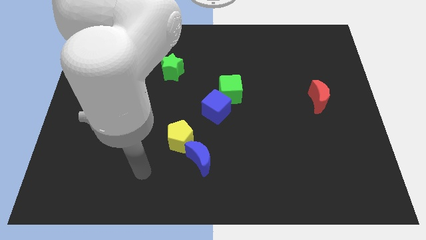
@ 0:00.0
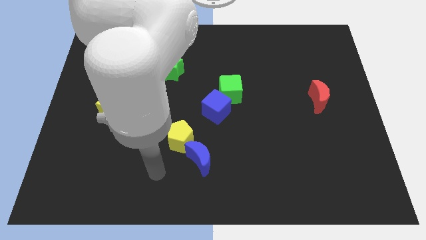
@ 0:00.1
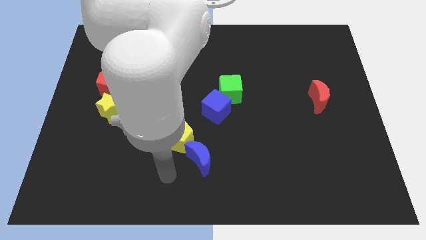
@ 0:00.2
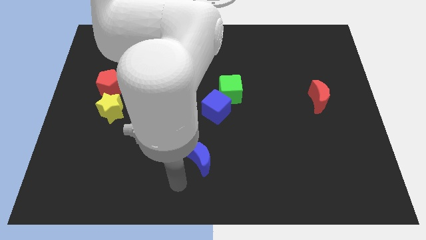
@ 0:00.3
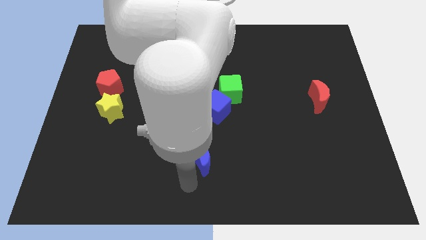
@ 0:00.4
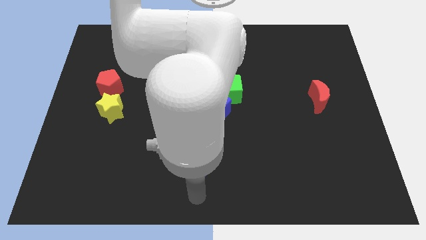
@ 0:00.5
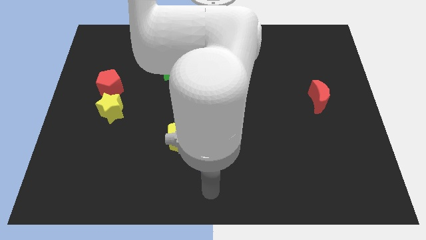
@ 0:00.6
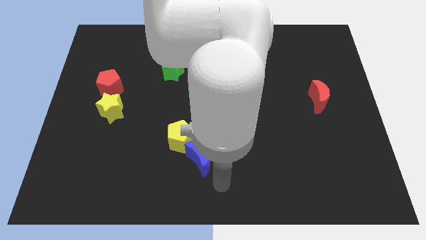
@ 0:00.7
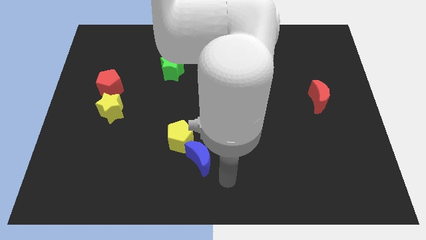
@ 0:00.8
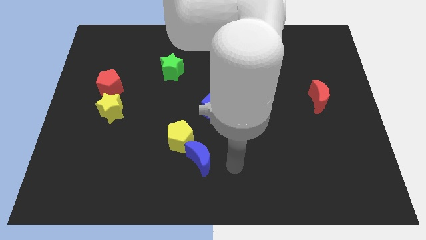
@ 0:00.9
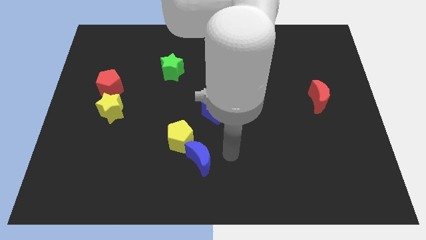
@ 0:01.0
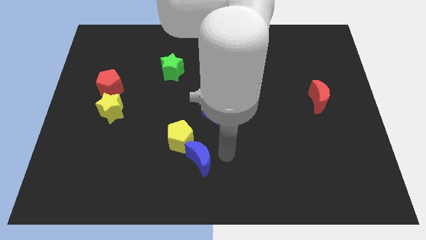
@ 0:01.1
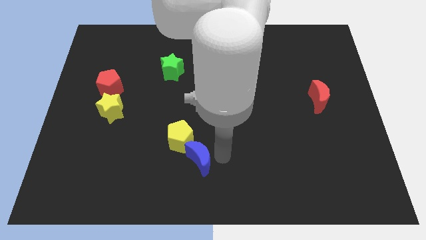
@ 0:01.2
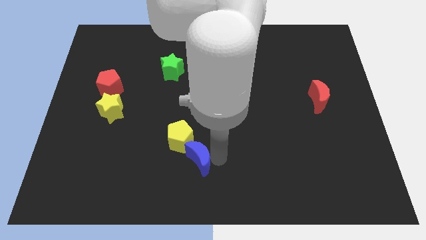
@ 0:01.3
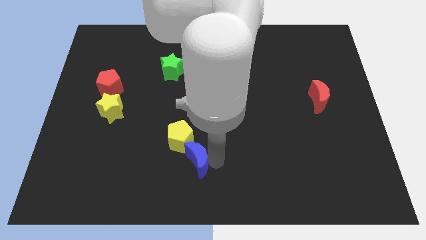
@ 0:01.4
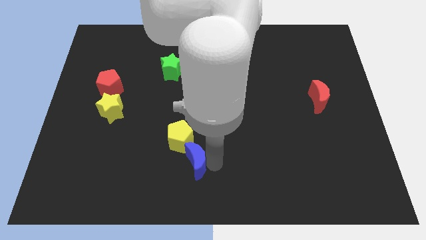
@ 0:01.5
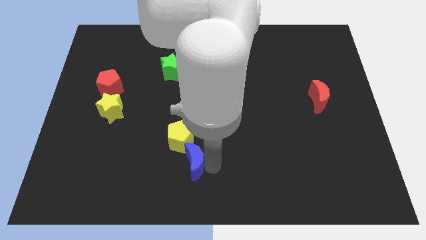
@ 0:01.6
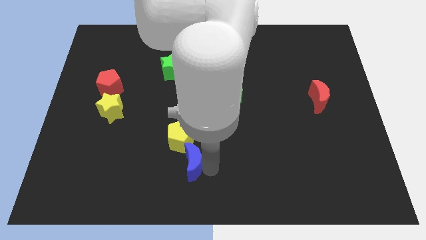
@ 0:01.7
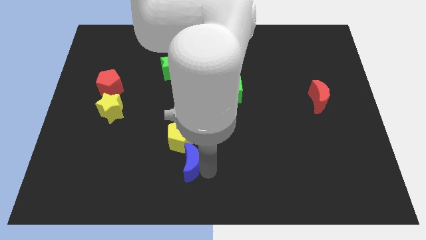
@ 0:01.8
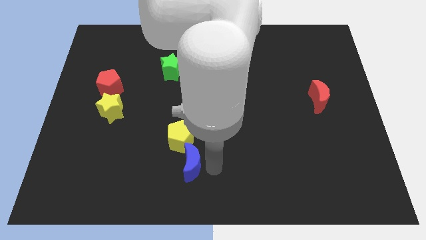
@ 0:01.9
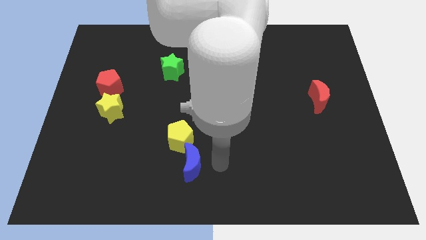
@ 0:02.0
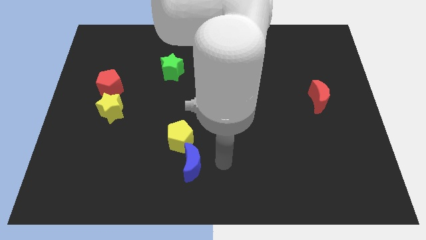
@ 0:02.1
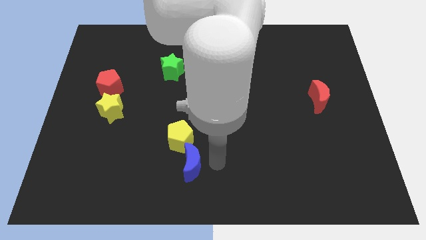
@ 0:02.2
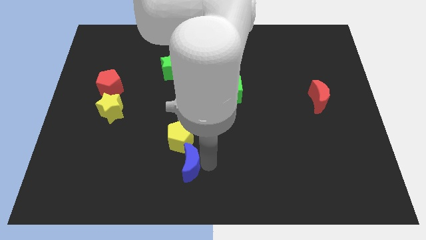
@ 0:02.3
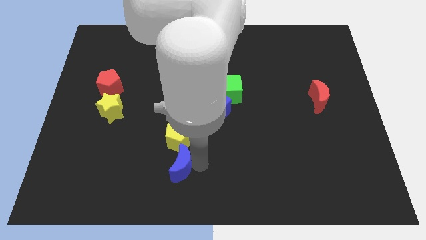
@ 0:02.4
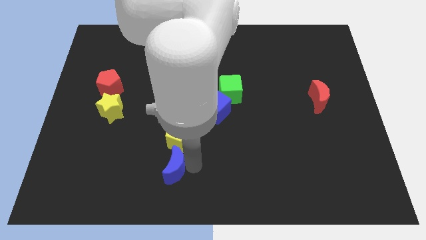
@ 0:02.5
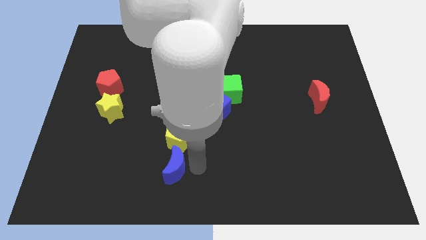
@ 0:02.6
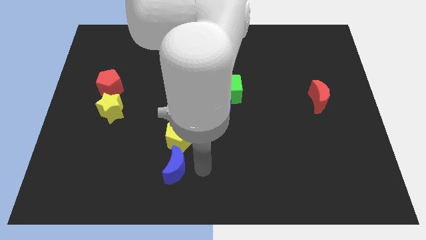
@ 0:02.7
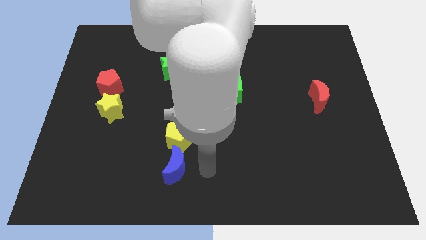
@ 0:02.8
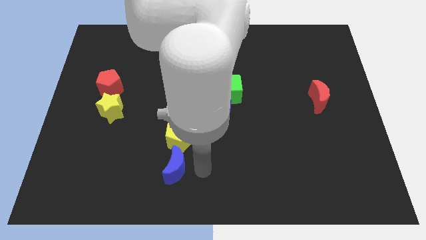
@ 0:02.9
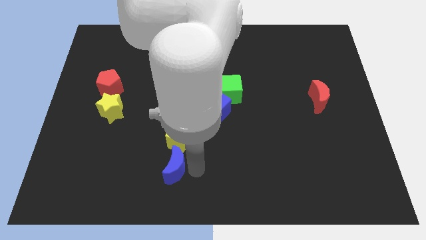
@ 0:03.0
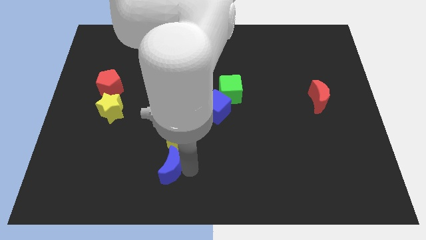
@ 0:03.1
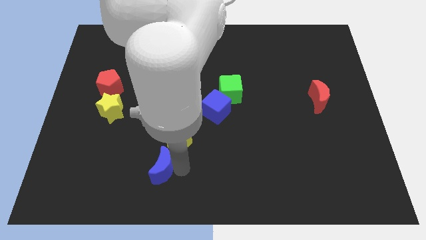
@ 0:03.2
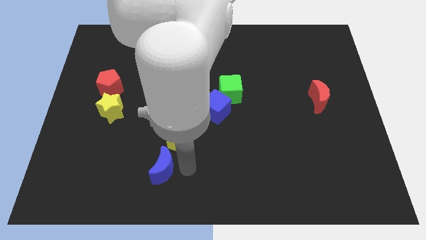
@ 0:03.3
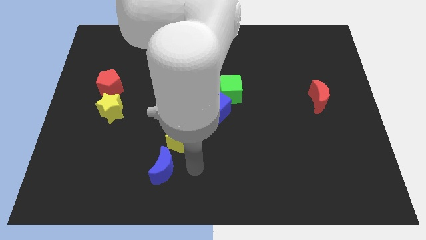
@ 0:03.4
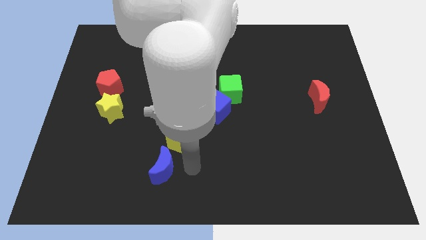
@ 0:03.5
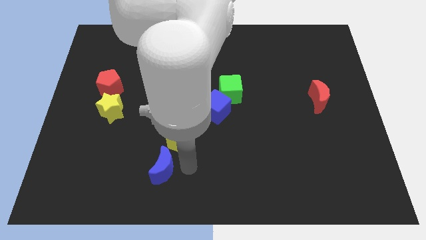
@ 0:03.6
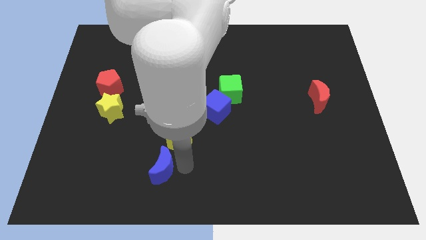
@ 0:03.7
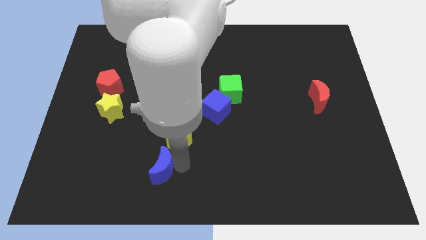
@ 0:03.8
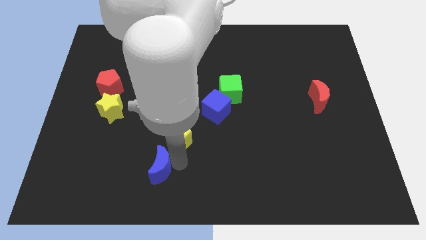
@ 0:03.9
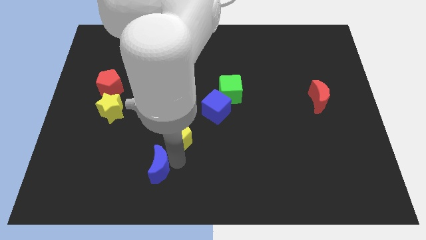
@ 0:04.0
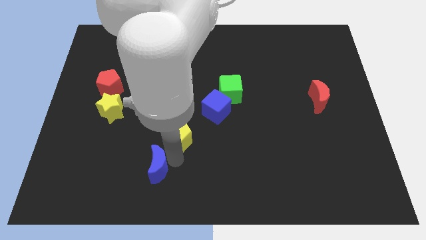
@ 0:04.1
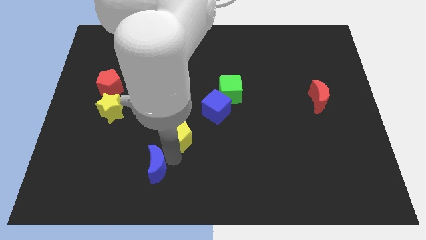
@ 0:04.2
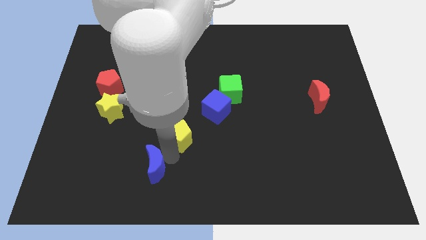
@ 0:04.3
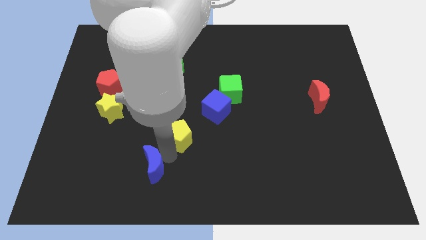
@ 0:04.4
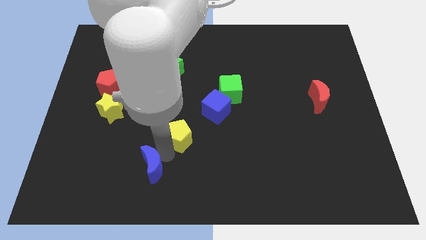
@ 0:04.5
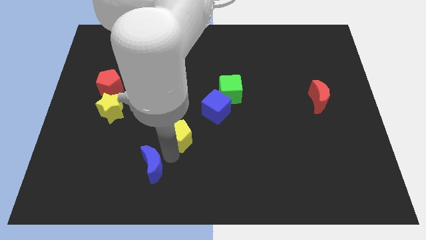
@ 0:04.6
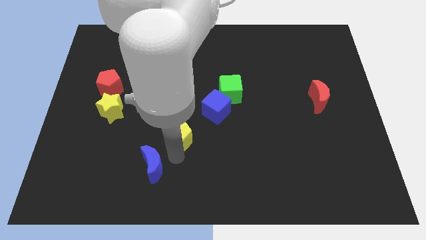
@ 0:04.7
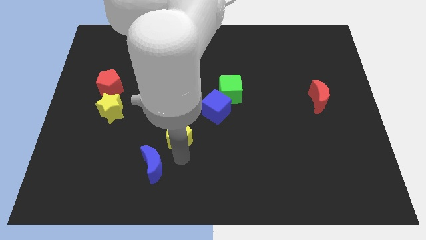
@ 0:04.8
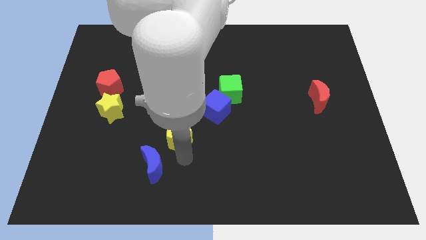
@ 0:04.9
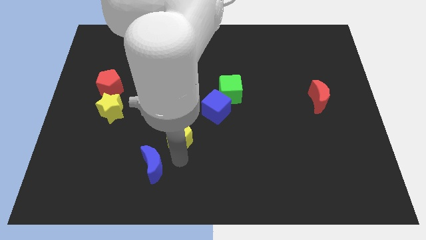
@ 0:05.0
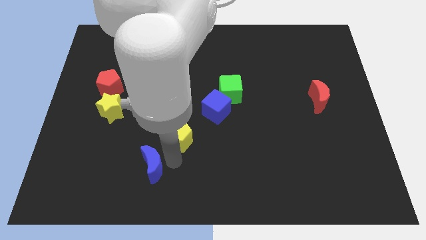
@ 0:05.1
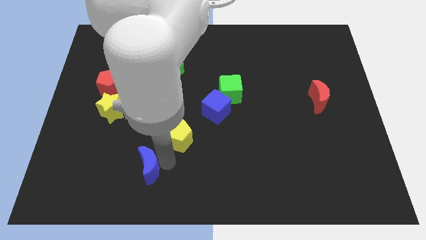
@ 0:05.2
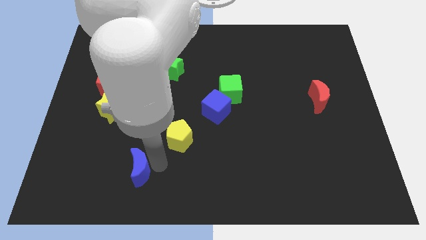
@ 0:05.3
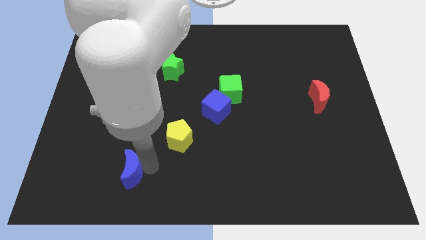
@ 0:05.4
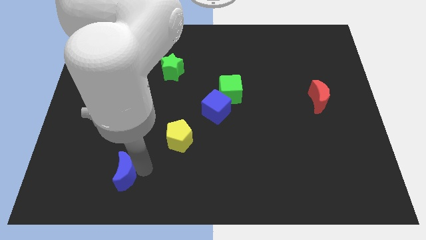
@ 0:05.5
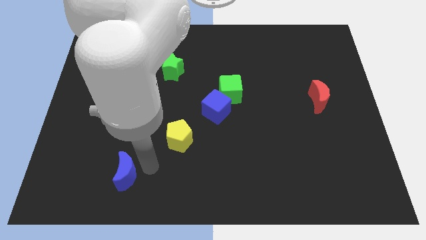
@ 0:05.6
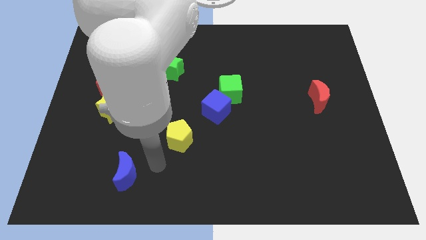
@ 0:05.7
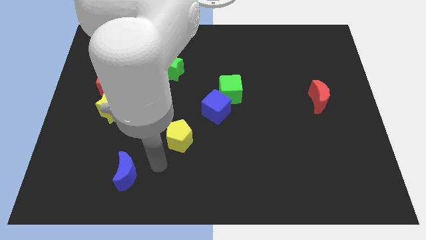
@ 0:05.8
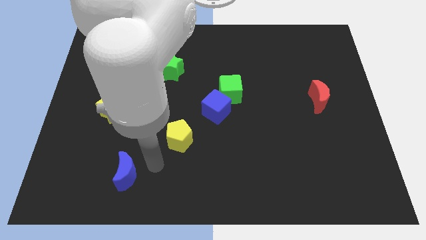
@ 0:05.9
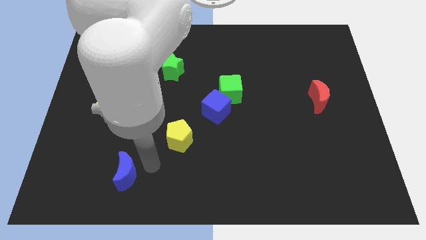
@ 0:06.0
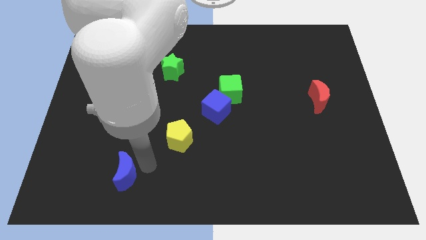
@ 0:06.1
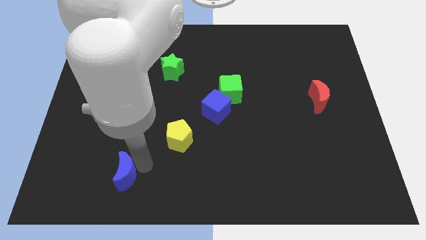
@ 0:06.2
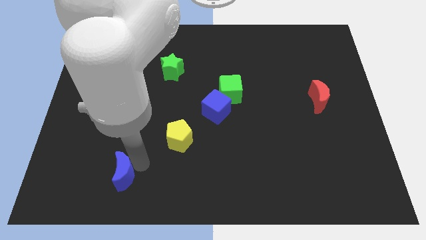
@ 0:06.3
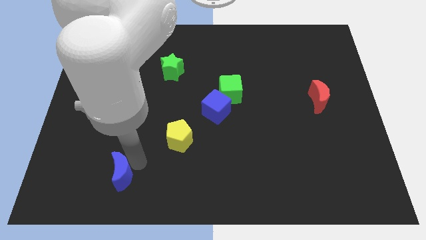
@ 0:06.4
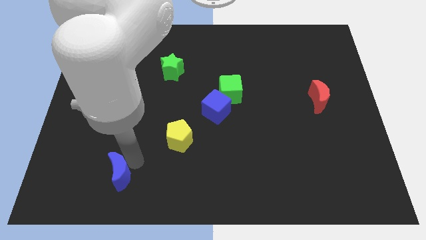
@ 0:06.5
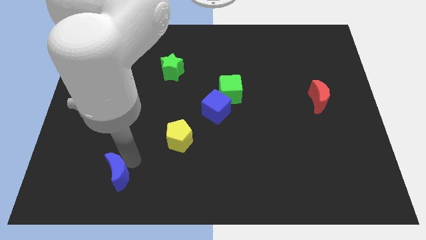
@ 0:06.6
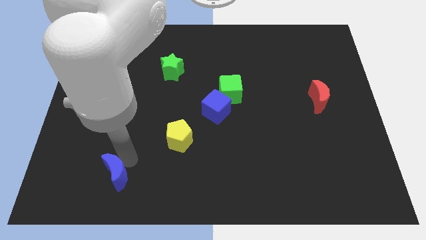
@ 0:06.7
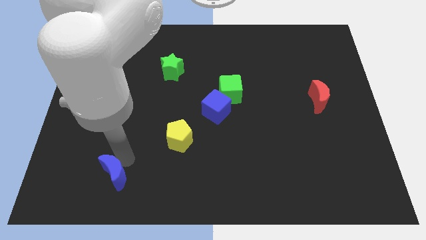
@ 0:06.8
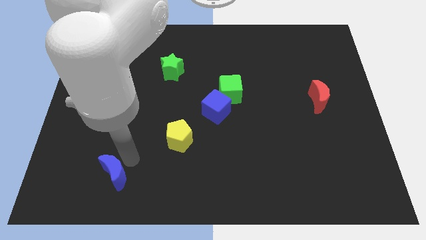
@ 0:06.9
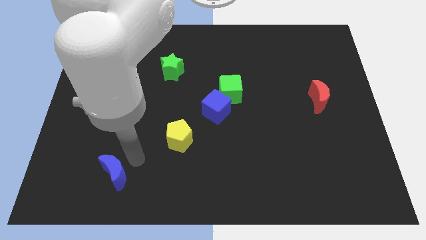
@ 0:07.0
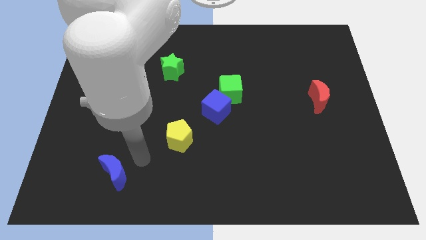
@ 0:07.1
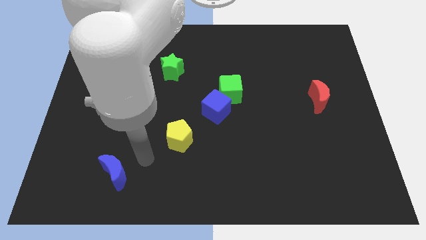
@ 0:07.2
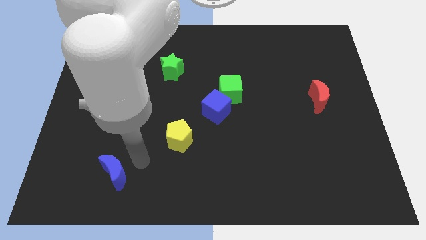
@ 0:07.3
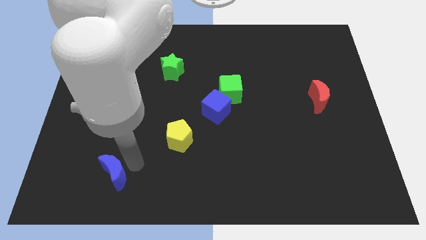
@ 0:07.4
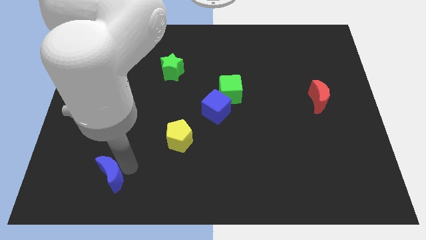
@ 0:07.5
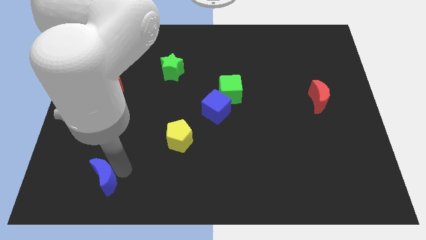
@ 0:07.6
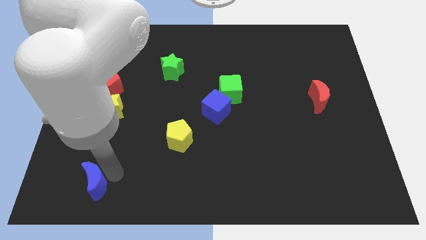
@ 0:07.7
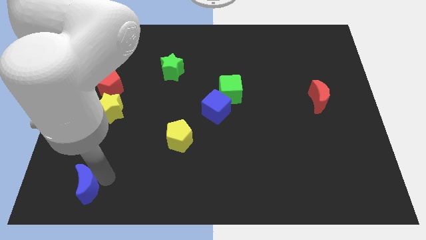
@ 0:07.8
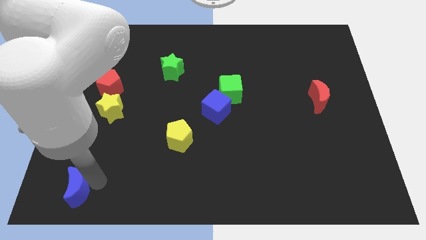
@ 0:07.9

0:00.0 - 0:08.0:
push the blue moon to the lower left corner

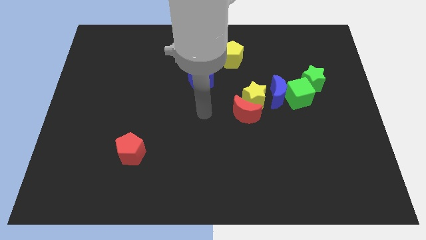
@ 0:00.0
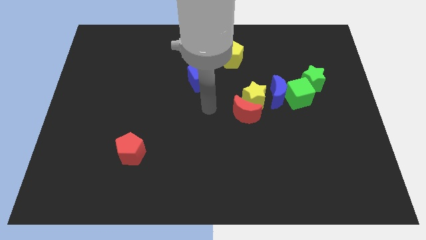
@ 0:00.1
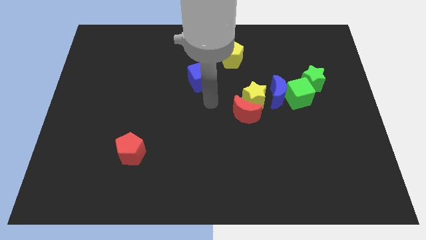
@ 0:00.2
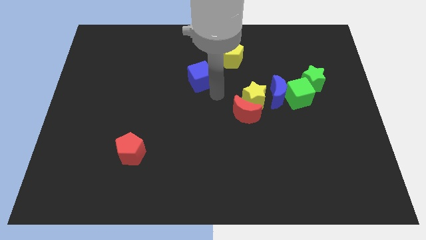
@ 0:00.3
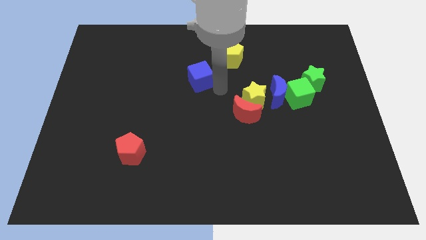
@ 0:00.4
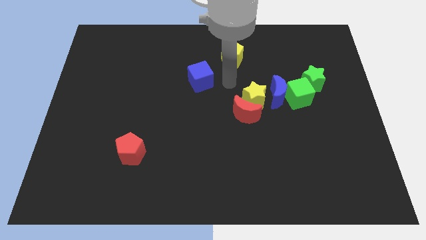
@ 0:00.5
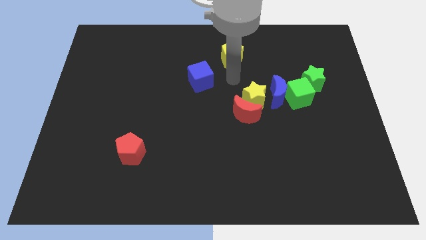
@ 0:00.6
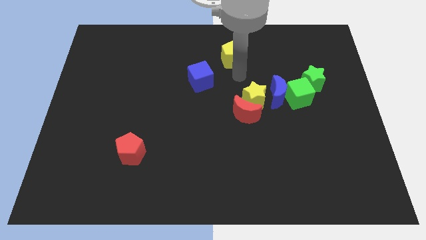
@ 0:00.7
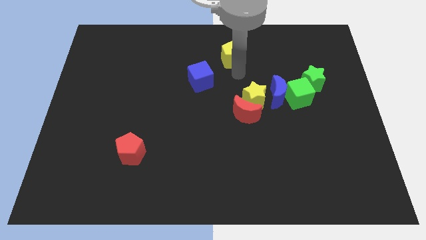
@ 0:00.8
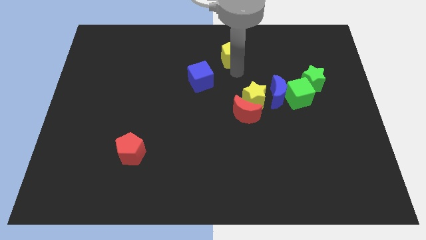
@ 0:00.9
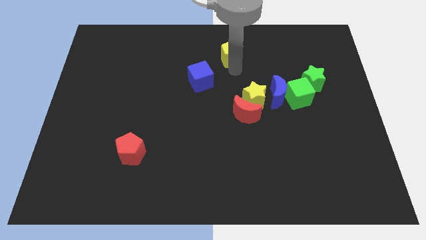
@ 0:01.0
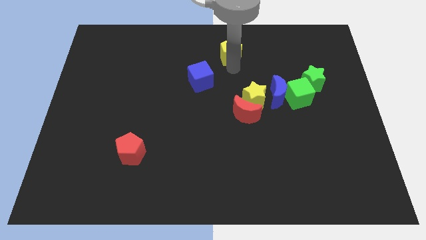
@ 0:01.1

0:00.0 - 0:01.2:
move the yellow pentagon to the top
